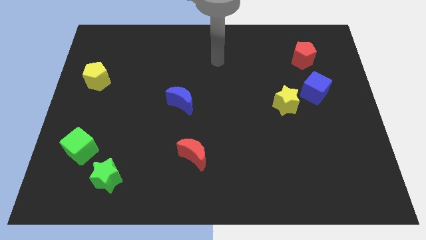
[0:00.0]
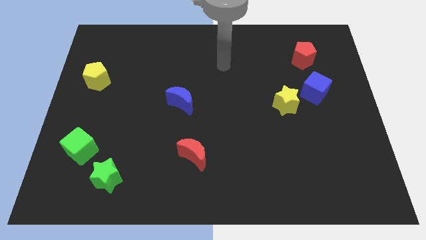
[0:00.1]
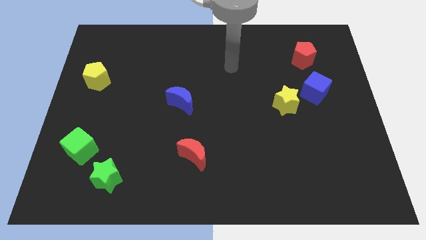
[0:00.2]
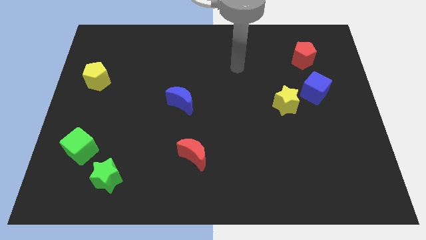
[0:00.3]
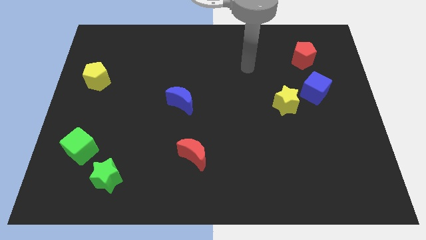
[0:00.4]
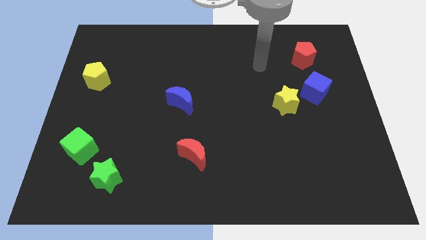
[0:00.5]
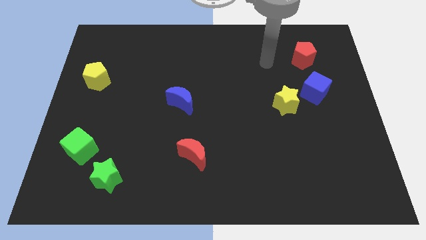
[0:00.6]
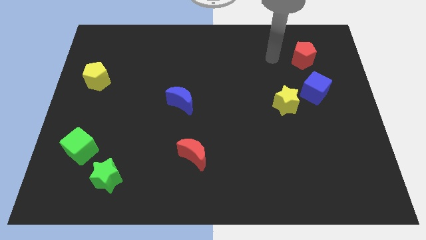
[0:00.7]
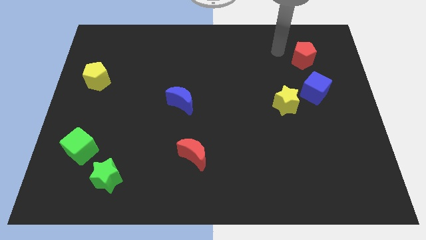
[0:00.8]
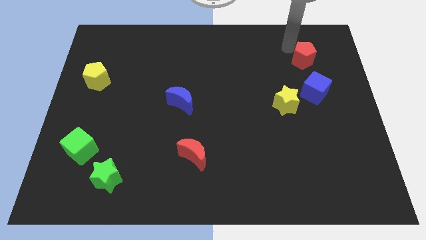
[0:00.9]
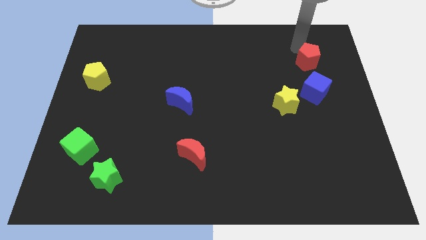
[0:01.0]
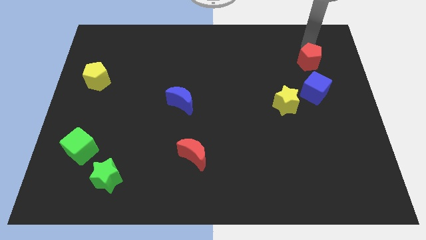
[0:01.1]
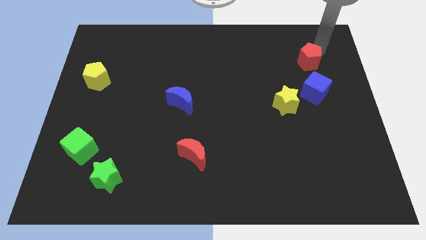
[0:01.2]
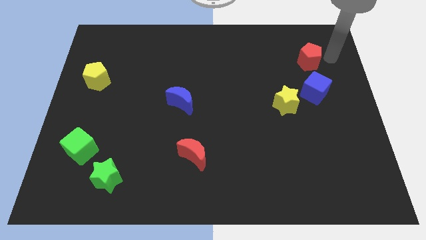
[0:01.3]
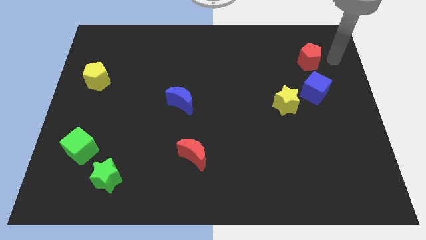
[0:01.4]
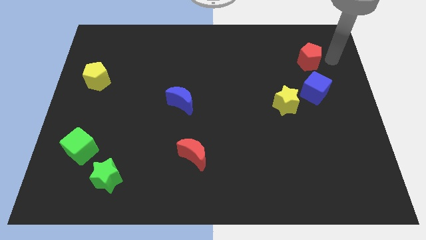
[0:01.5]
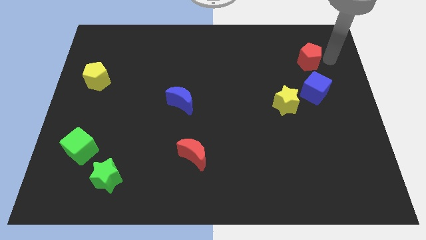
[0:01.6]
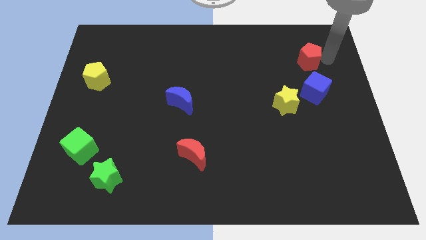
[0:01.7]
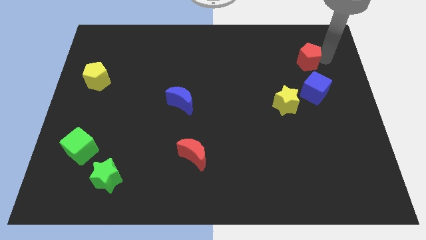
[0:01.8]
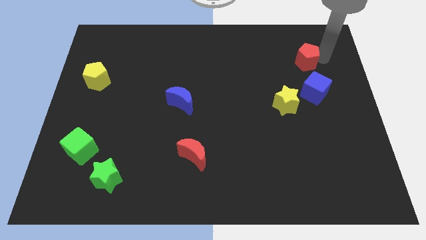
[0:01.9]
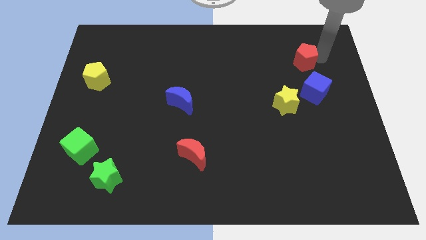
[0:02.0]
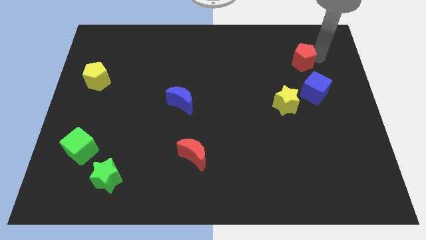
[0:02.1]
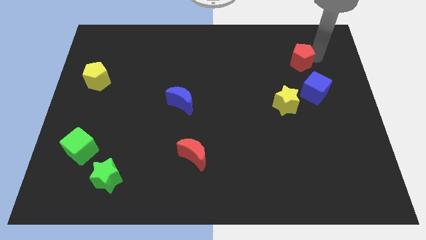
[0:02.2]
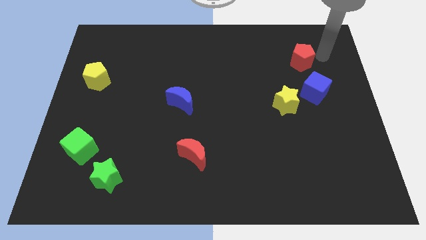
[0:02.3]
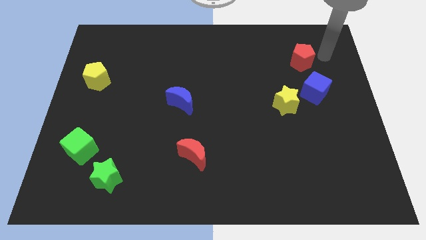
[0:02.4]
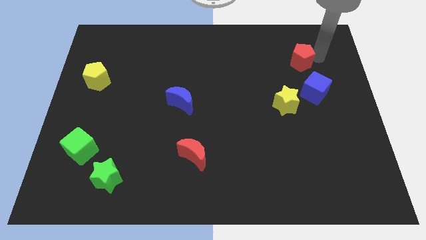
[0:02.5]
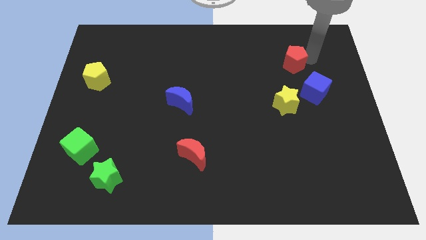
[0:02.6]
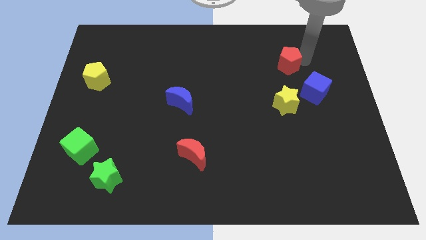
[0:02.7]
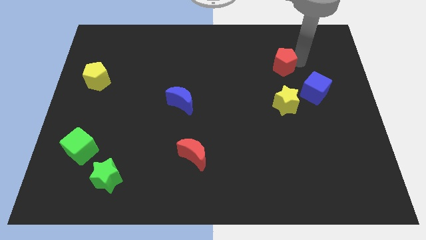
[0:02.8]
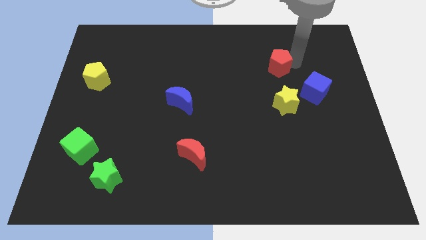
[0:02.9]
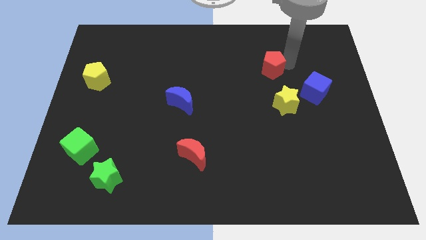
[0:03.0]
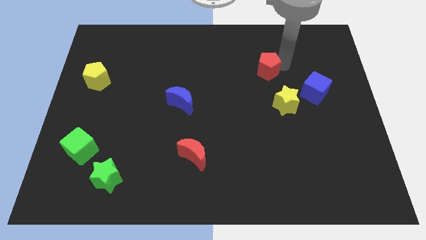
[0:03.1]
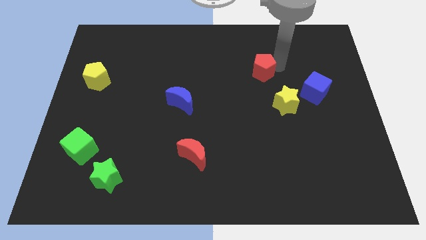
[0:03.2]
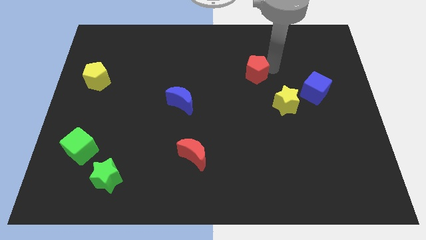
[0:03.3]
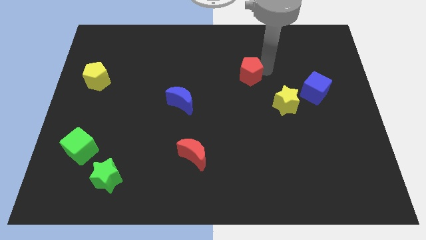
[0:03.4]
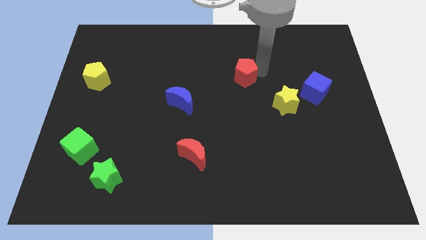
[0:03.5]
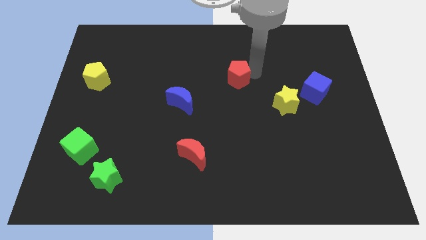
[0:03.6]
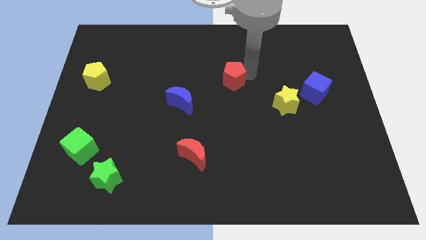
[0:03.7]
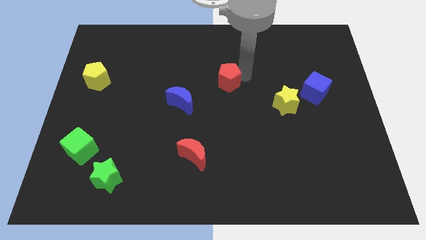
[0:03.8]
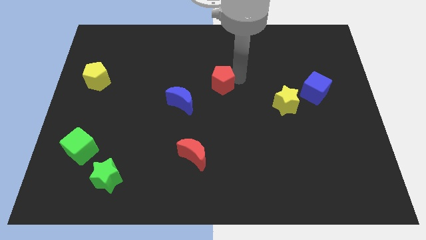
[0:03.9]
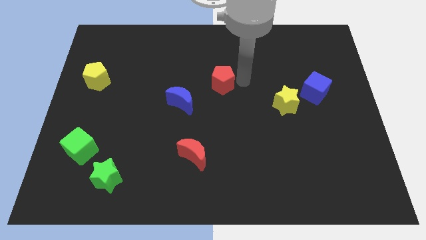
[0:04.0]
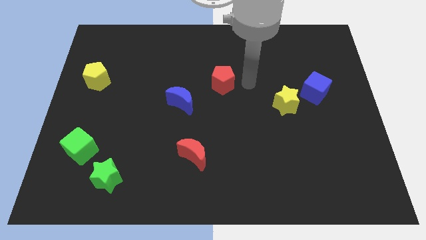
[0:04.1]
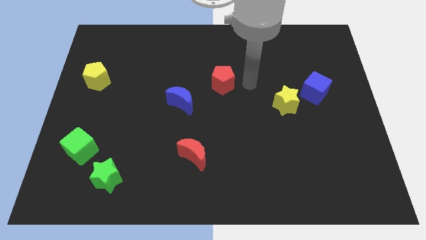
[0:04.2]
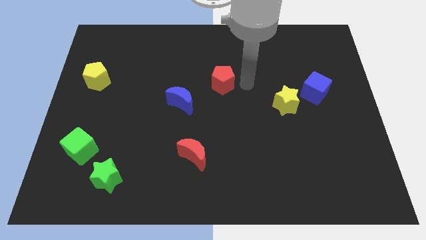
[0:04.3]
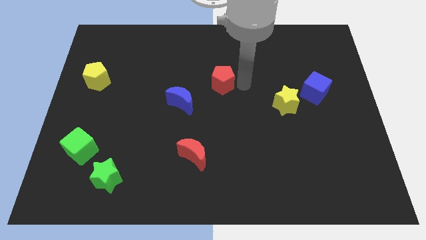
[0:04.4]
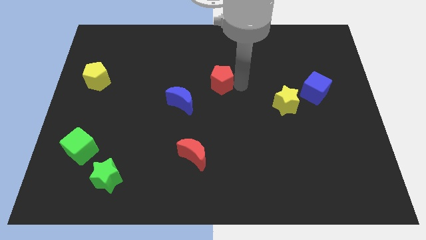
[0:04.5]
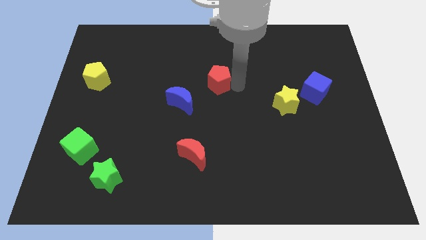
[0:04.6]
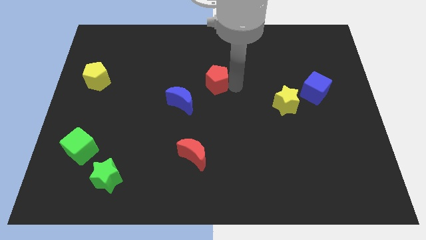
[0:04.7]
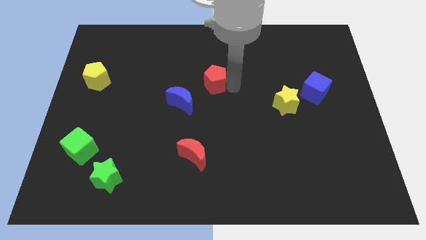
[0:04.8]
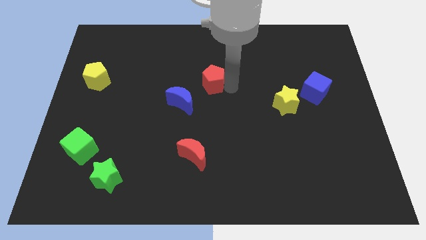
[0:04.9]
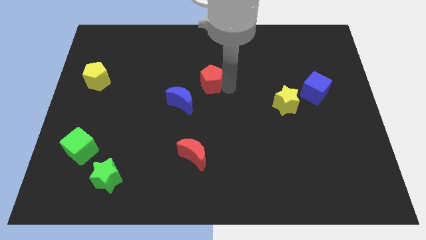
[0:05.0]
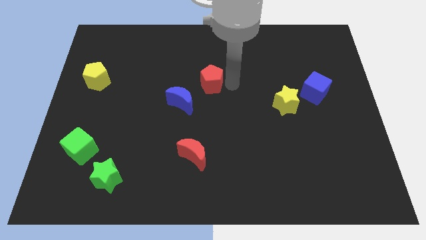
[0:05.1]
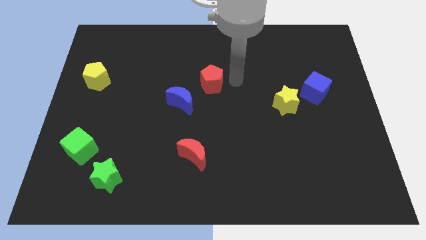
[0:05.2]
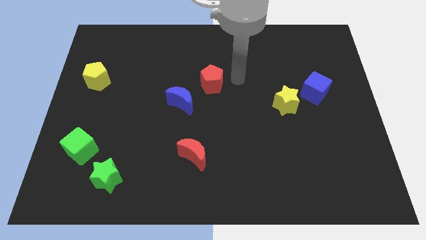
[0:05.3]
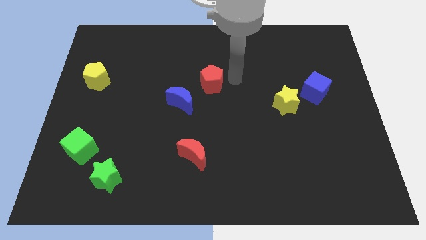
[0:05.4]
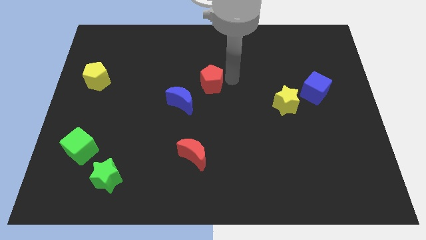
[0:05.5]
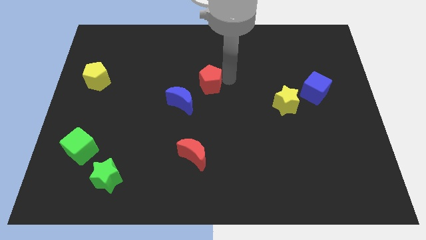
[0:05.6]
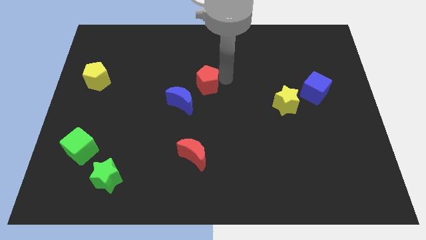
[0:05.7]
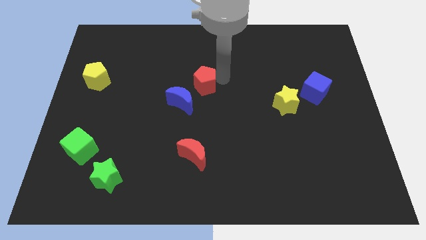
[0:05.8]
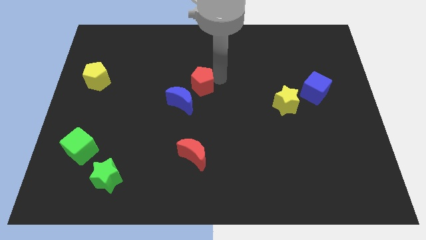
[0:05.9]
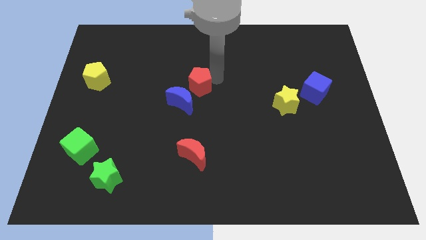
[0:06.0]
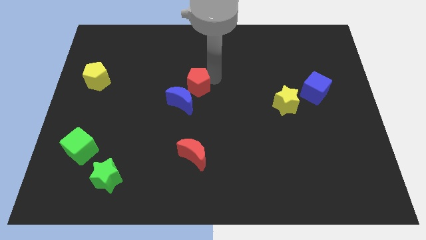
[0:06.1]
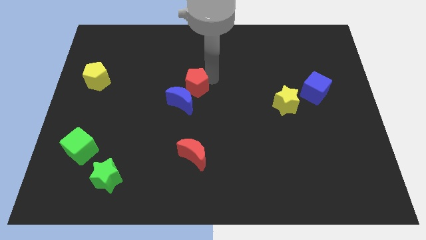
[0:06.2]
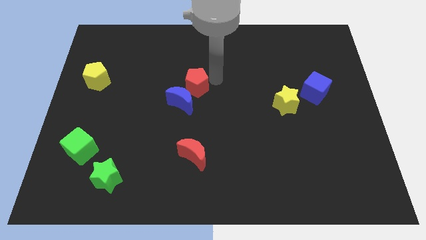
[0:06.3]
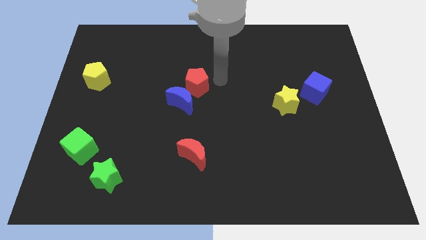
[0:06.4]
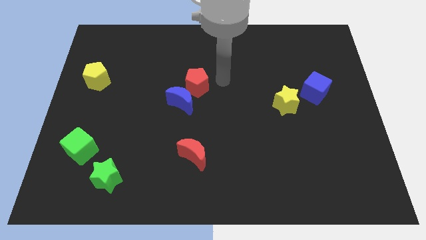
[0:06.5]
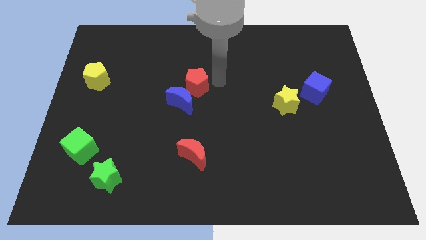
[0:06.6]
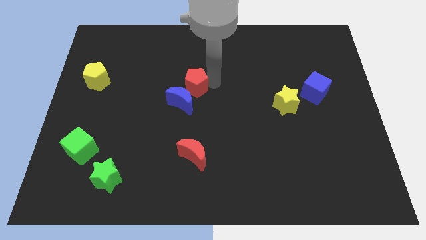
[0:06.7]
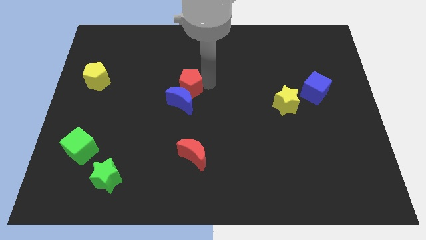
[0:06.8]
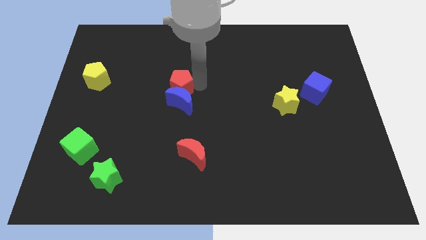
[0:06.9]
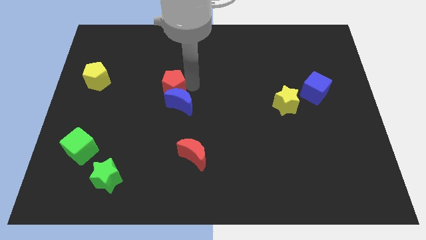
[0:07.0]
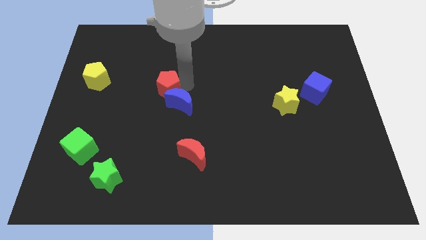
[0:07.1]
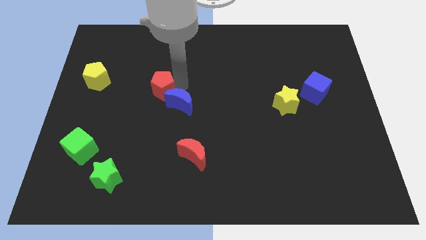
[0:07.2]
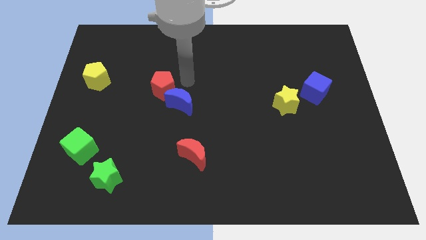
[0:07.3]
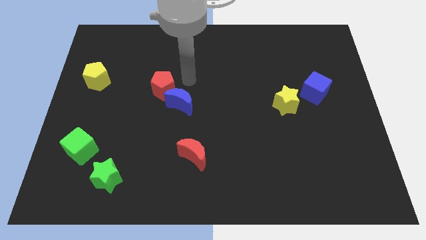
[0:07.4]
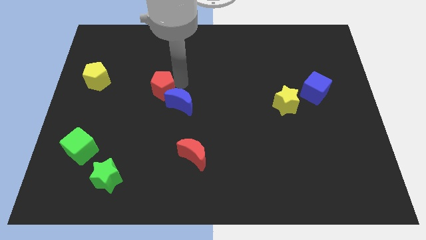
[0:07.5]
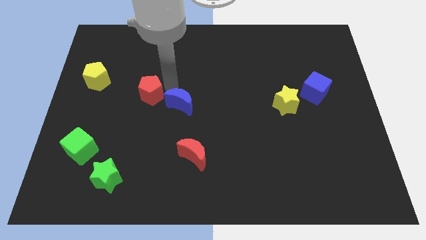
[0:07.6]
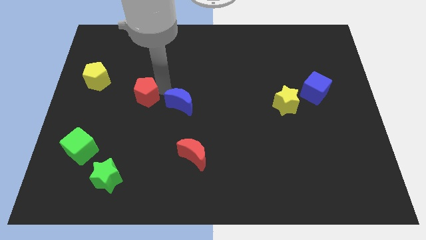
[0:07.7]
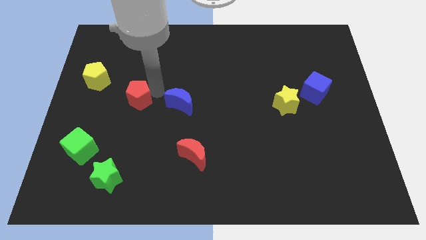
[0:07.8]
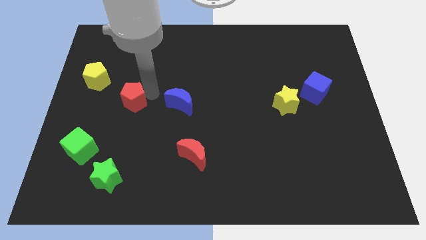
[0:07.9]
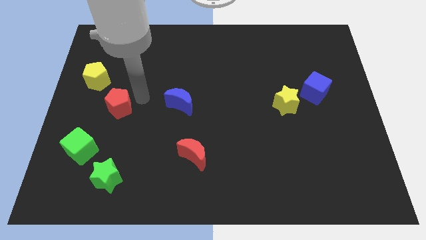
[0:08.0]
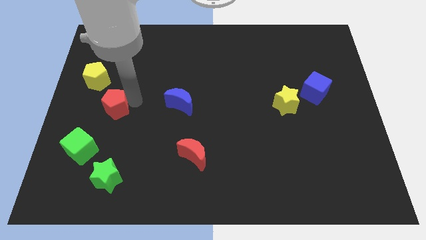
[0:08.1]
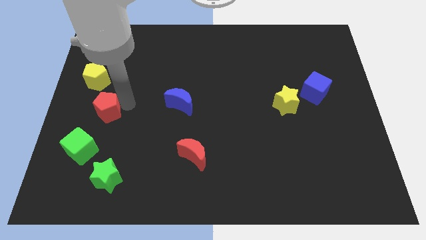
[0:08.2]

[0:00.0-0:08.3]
slide the red pentagon to the bottom of the yellow pentagon
